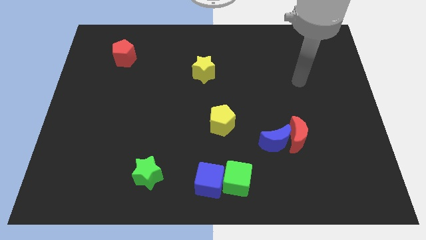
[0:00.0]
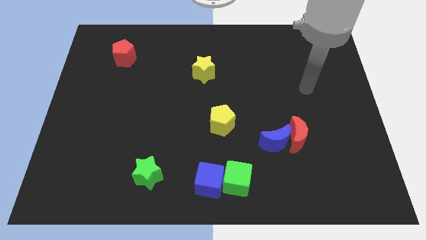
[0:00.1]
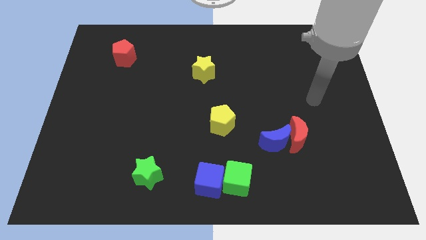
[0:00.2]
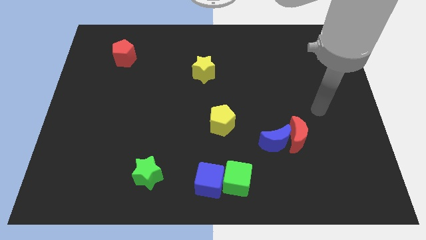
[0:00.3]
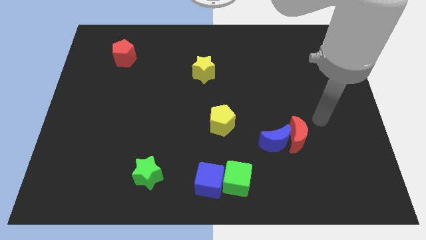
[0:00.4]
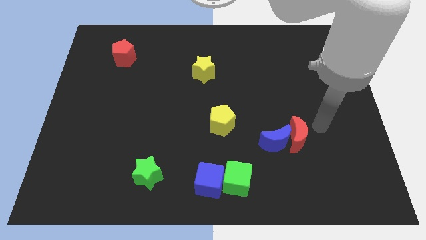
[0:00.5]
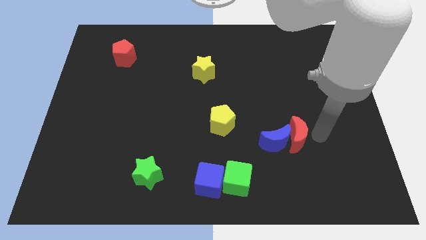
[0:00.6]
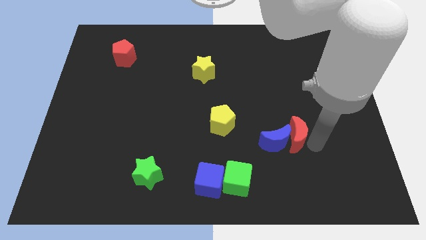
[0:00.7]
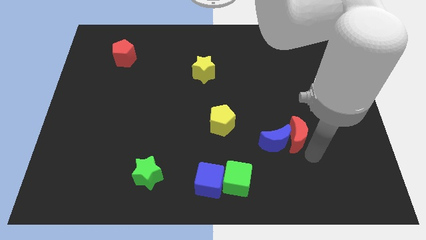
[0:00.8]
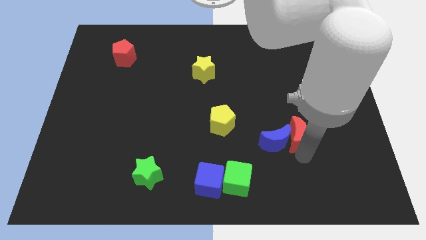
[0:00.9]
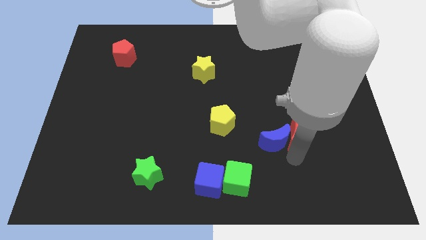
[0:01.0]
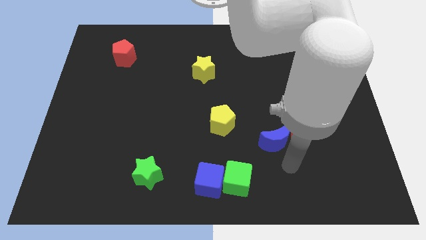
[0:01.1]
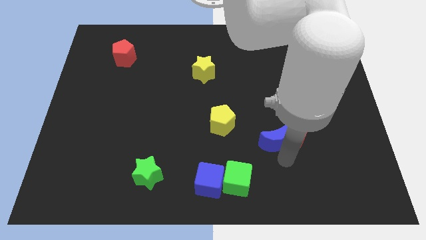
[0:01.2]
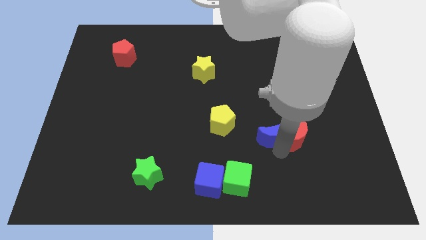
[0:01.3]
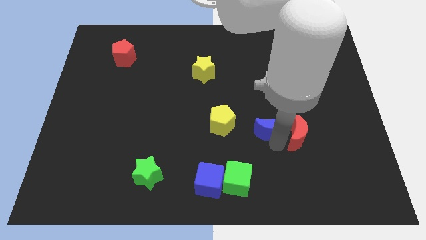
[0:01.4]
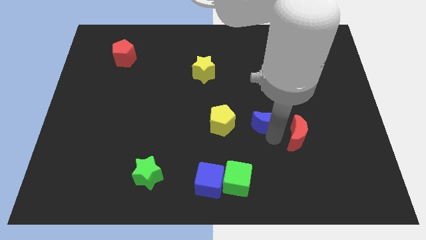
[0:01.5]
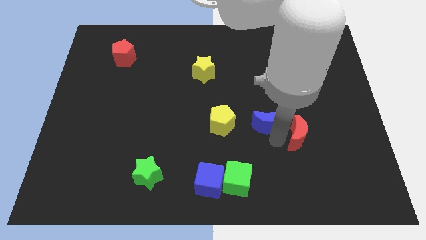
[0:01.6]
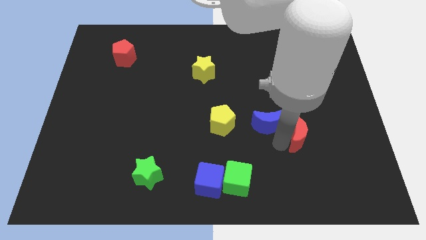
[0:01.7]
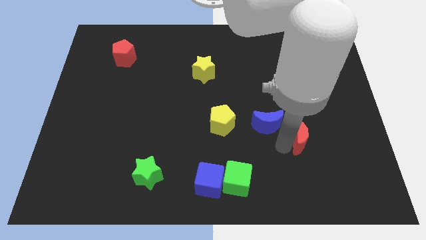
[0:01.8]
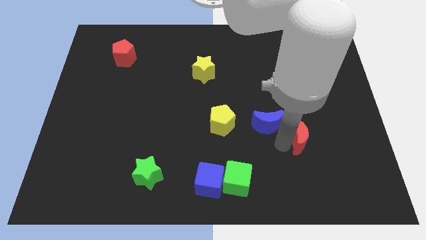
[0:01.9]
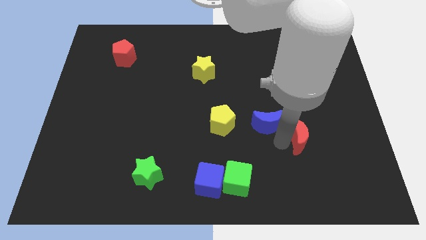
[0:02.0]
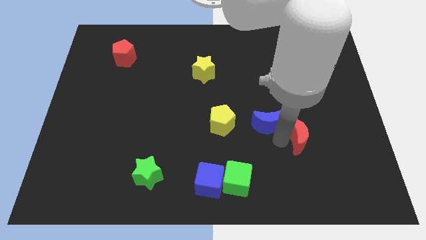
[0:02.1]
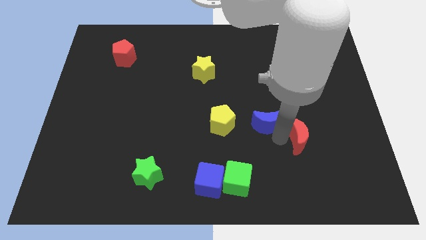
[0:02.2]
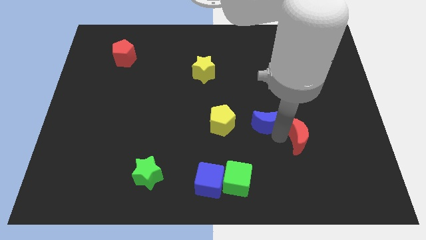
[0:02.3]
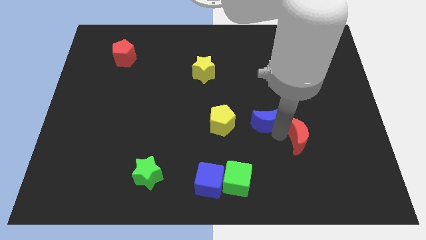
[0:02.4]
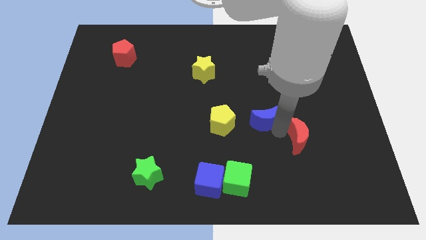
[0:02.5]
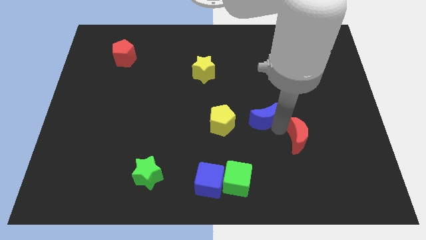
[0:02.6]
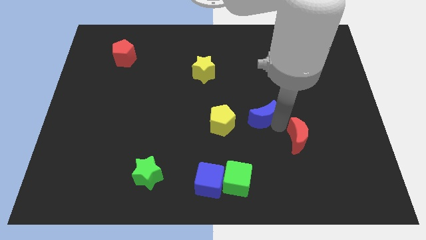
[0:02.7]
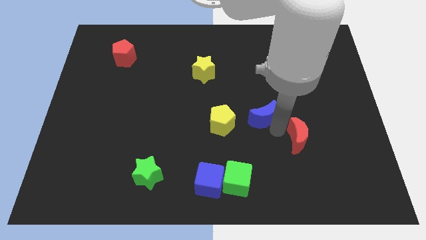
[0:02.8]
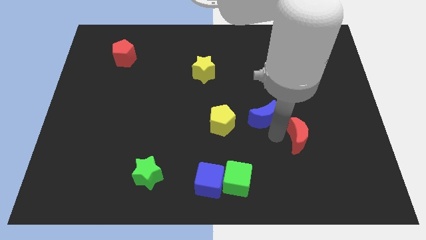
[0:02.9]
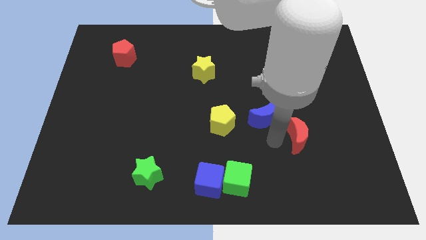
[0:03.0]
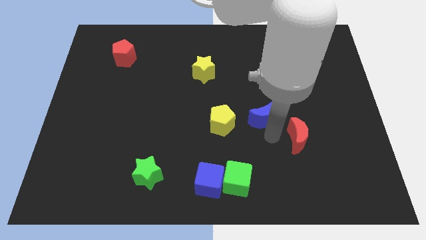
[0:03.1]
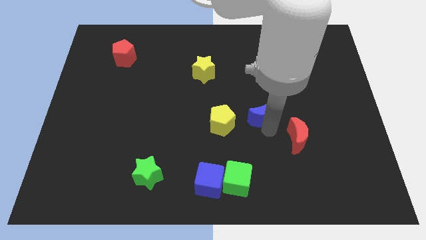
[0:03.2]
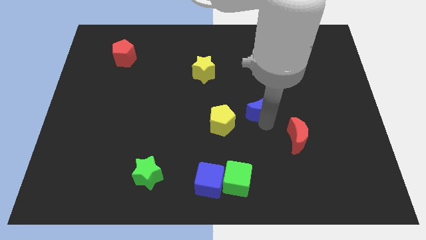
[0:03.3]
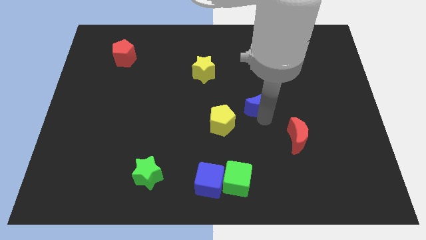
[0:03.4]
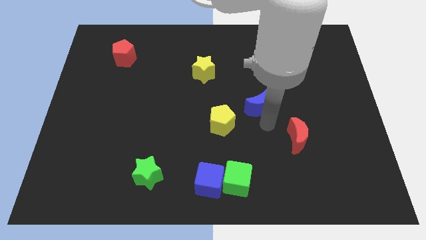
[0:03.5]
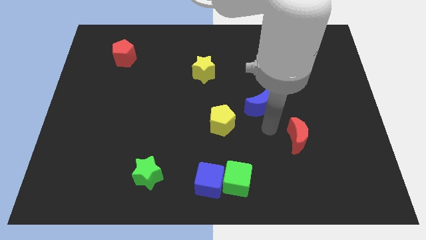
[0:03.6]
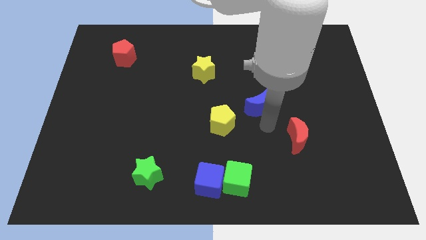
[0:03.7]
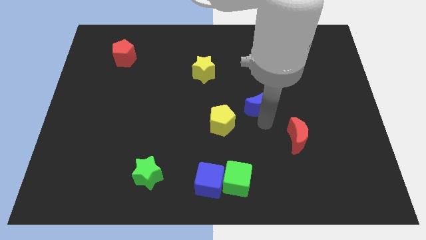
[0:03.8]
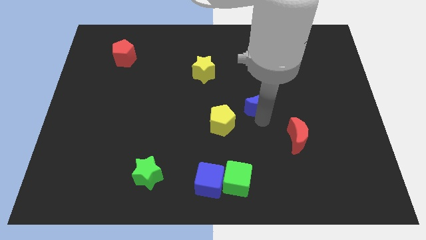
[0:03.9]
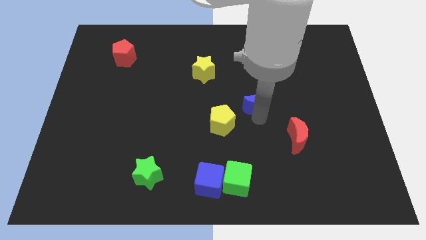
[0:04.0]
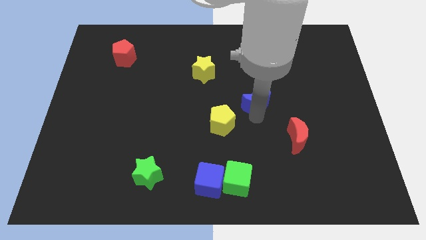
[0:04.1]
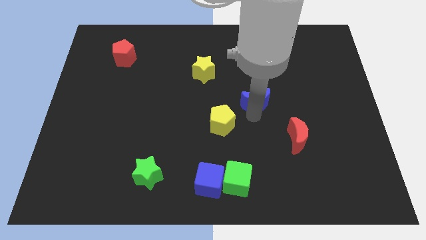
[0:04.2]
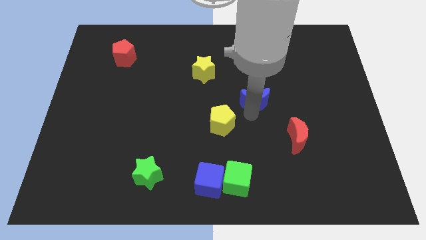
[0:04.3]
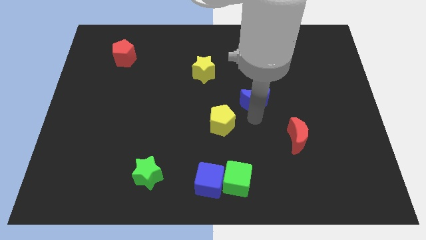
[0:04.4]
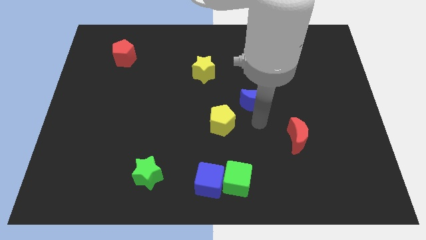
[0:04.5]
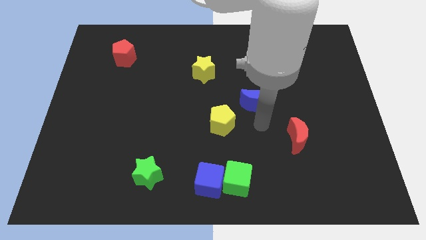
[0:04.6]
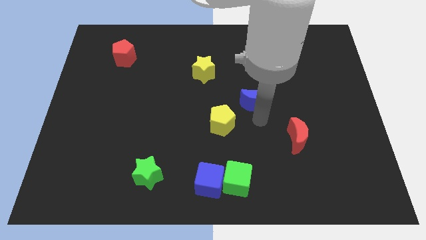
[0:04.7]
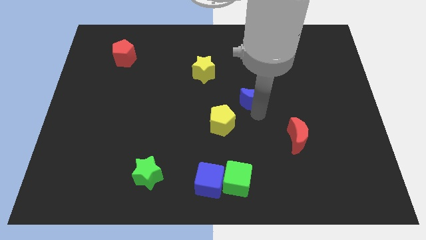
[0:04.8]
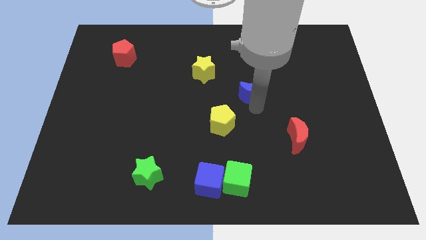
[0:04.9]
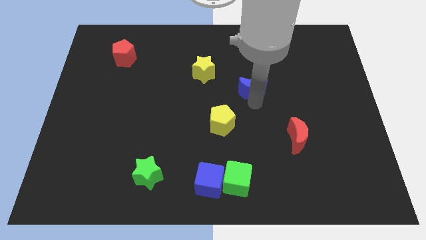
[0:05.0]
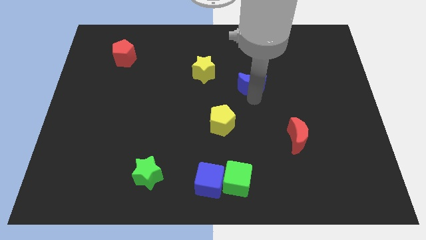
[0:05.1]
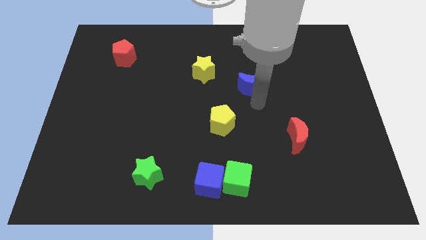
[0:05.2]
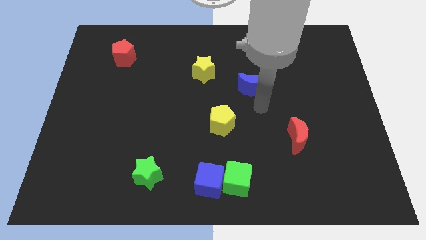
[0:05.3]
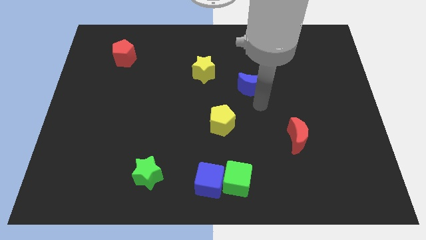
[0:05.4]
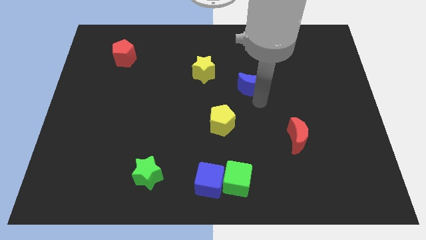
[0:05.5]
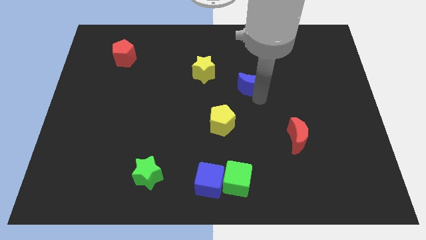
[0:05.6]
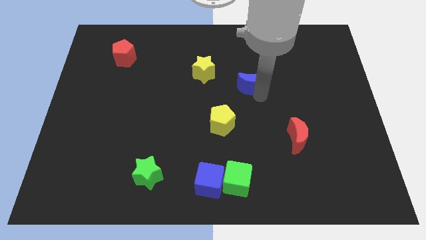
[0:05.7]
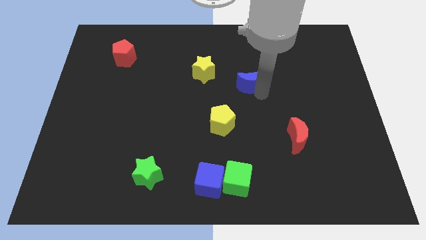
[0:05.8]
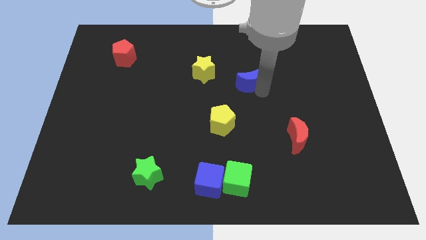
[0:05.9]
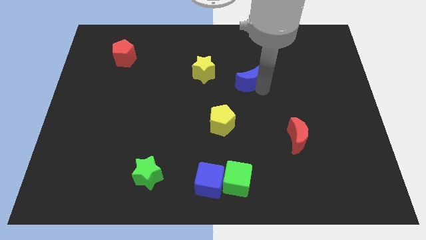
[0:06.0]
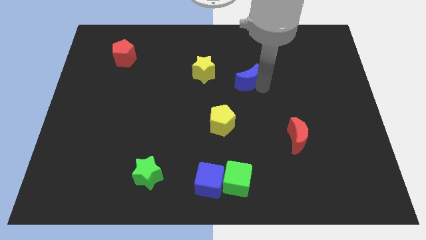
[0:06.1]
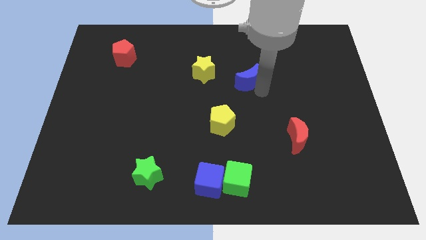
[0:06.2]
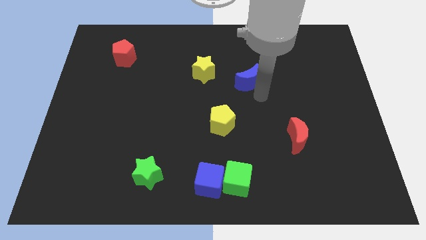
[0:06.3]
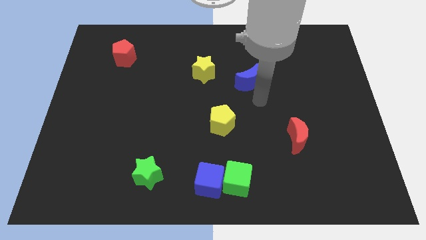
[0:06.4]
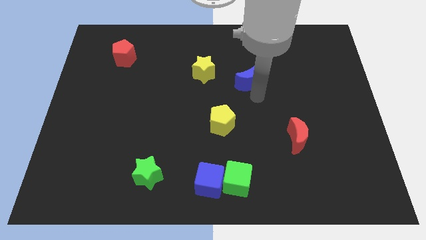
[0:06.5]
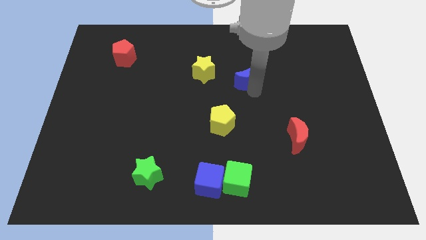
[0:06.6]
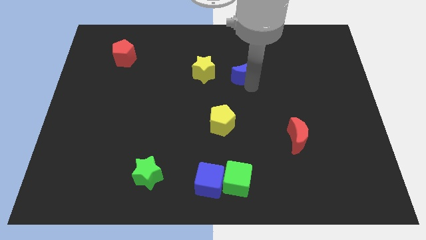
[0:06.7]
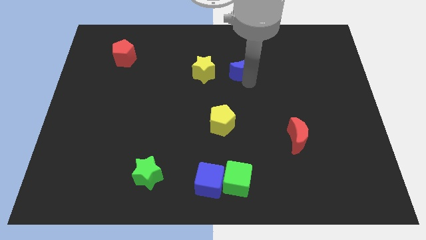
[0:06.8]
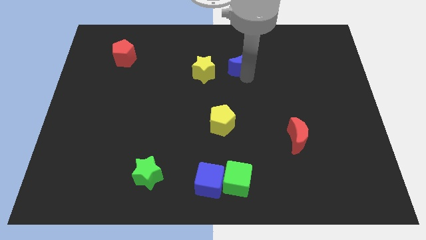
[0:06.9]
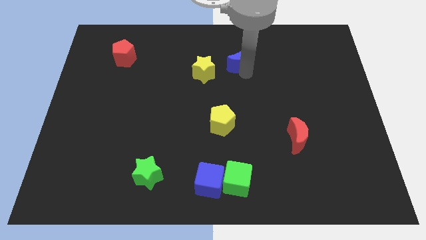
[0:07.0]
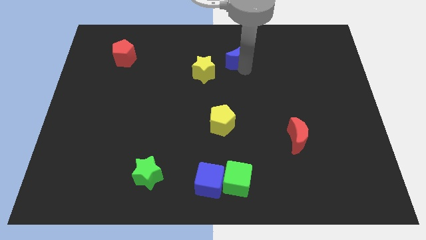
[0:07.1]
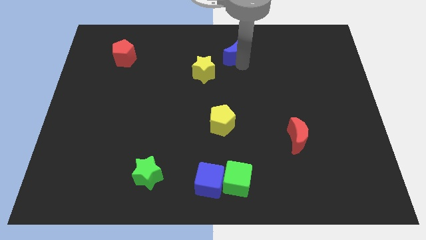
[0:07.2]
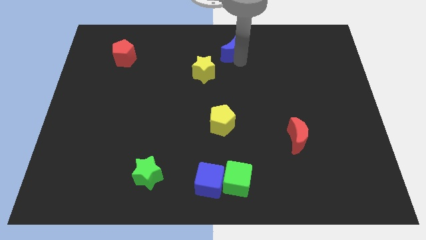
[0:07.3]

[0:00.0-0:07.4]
push the blue moon to the top
